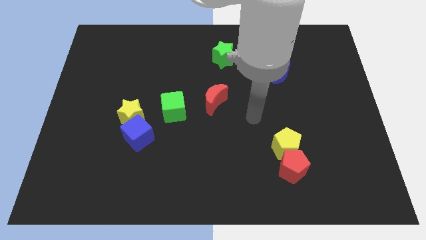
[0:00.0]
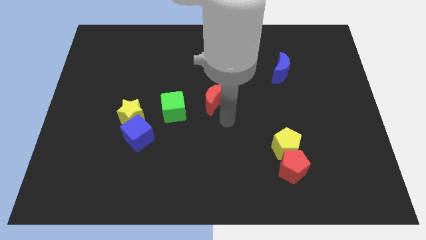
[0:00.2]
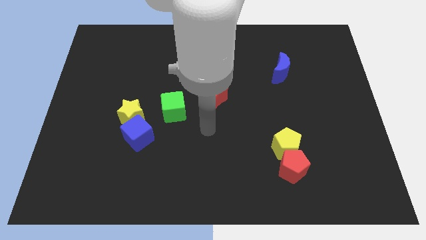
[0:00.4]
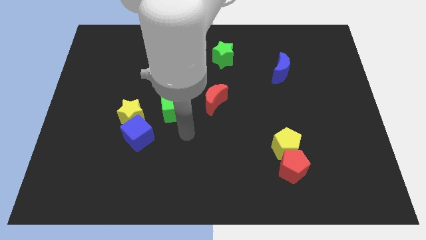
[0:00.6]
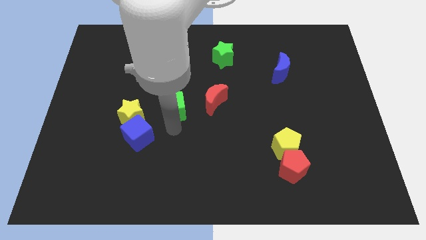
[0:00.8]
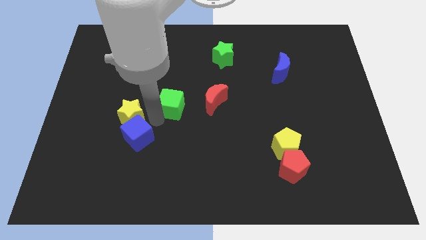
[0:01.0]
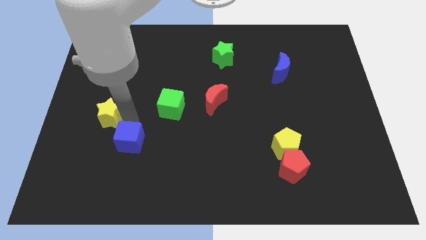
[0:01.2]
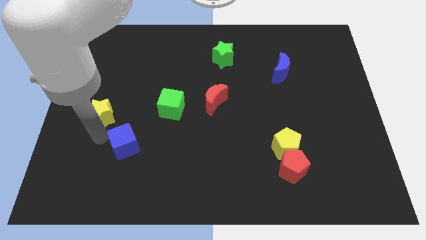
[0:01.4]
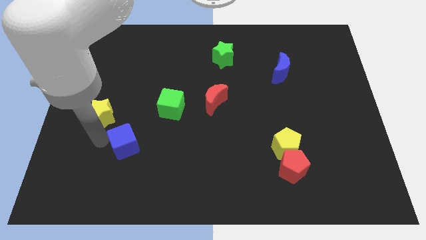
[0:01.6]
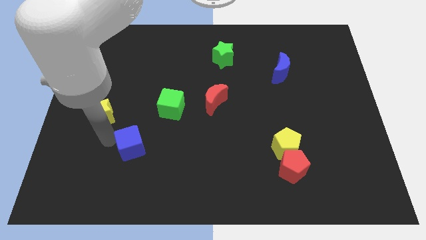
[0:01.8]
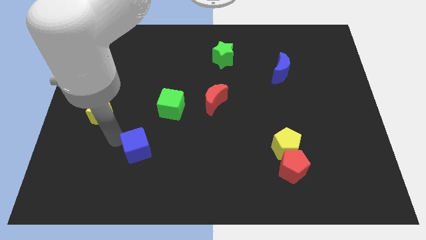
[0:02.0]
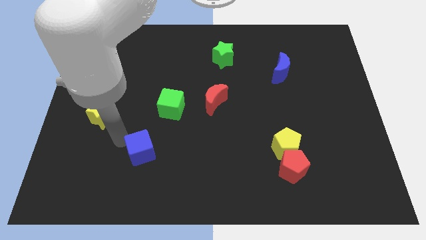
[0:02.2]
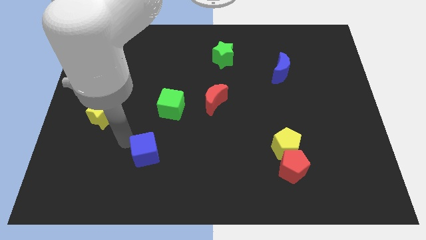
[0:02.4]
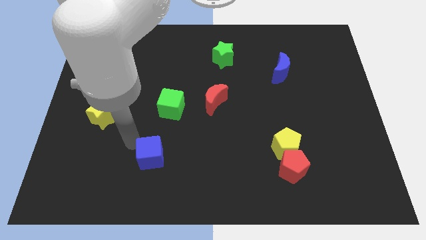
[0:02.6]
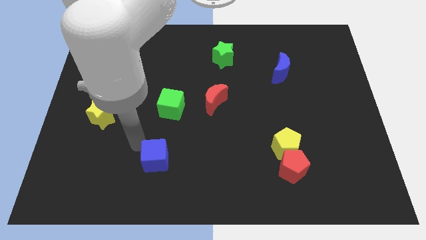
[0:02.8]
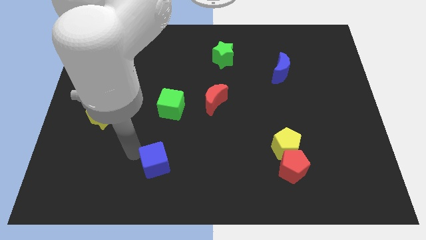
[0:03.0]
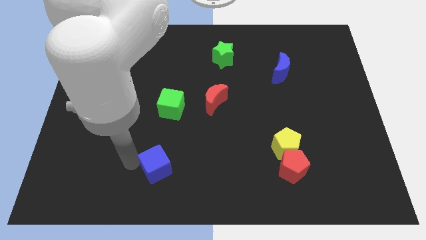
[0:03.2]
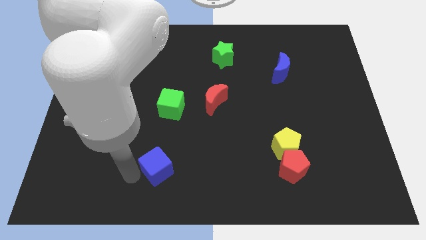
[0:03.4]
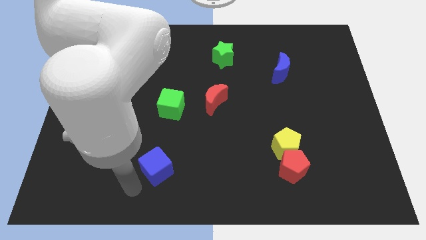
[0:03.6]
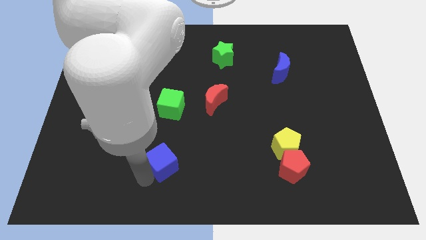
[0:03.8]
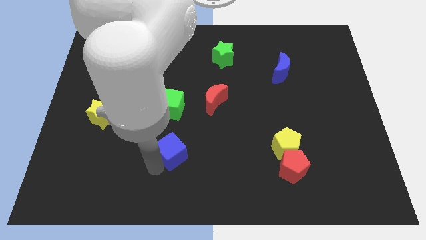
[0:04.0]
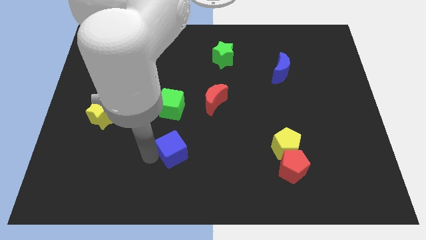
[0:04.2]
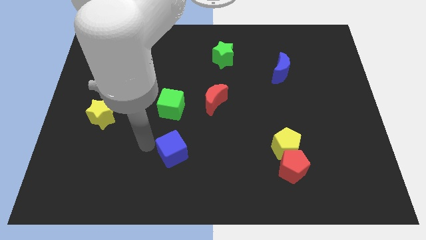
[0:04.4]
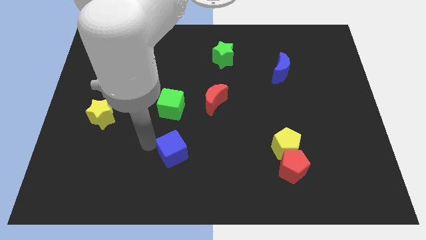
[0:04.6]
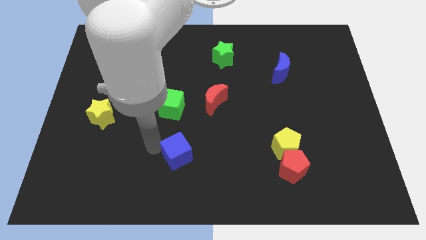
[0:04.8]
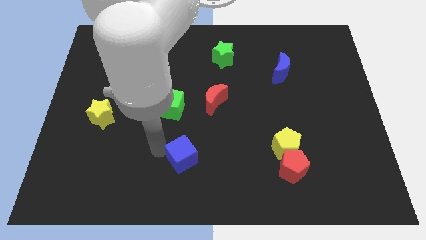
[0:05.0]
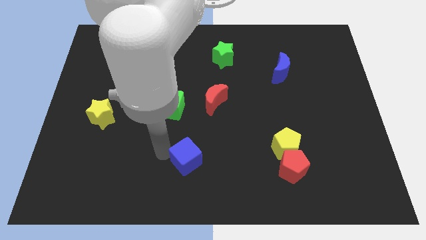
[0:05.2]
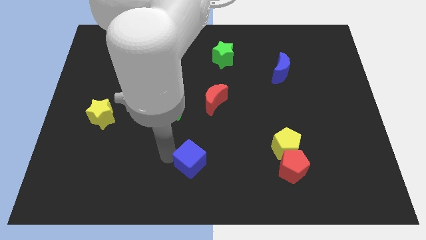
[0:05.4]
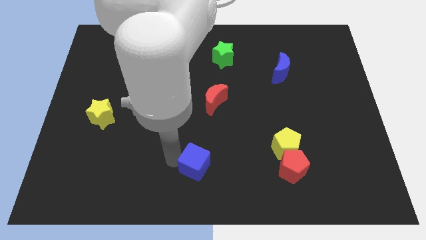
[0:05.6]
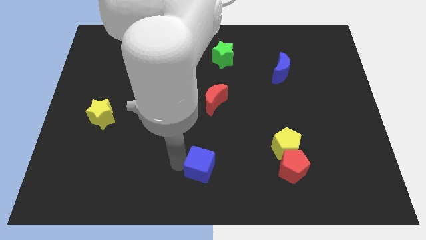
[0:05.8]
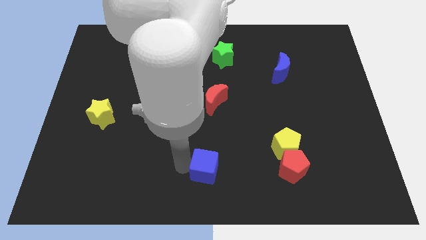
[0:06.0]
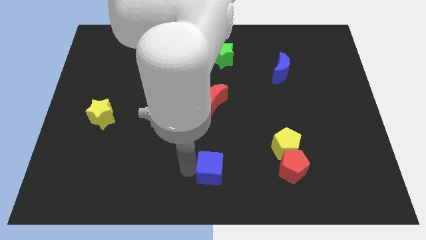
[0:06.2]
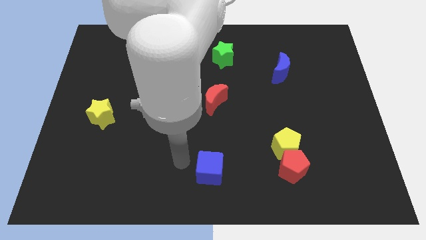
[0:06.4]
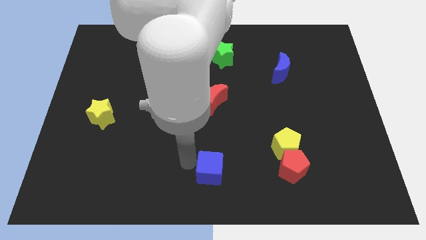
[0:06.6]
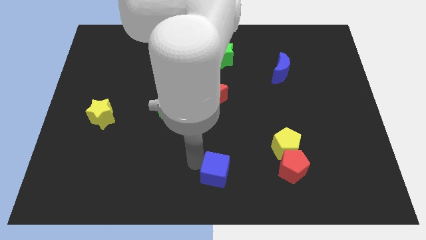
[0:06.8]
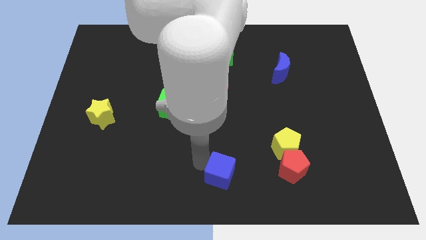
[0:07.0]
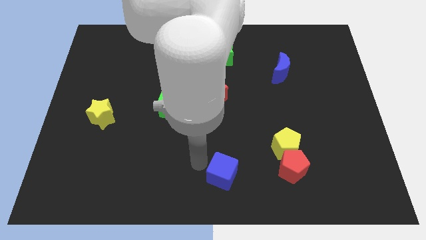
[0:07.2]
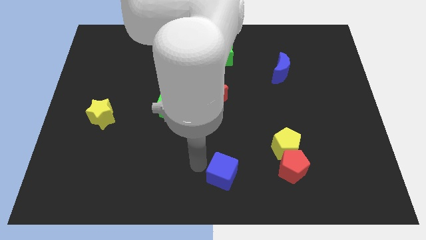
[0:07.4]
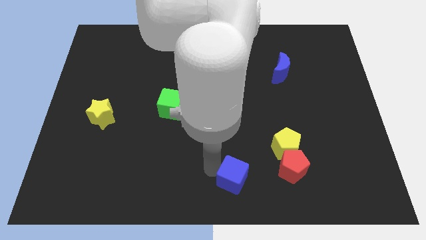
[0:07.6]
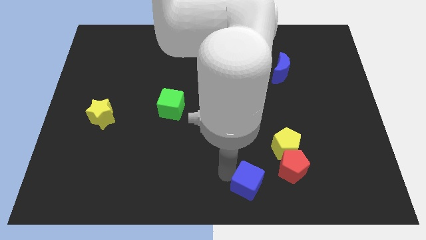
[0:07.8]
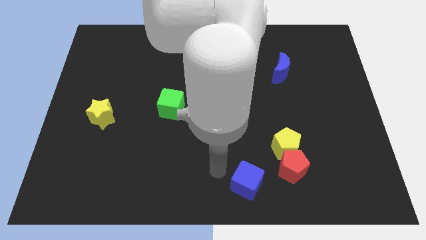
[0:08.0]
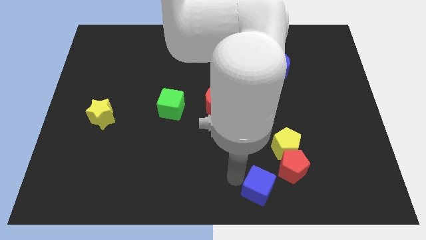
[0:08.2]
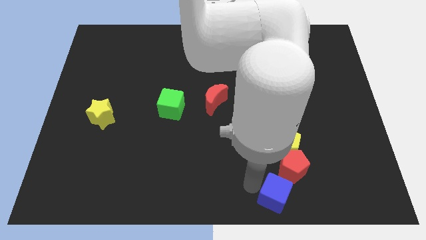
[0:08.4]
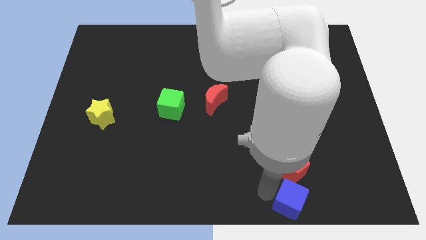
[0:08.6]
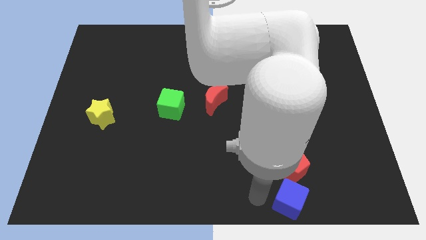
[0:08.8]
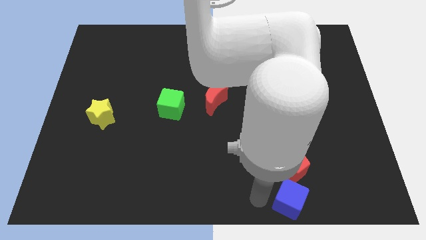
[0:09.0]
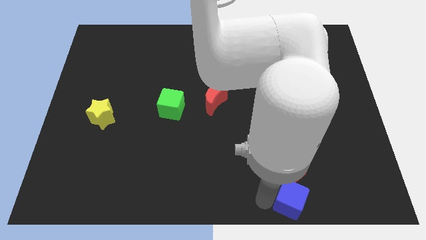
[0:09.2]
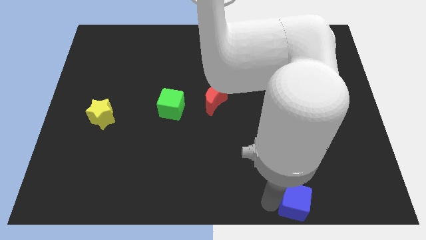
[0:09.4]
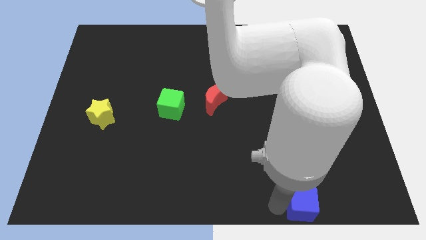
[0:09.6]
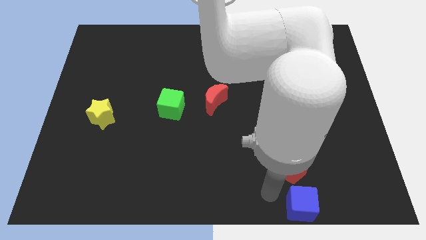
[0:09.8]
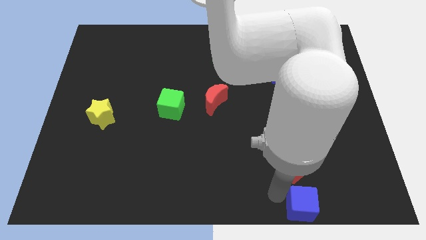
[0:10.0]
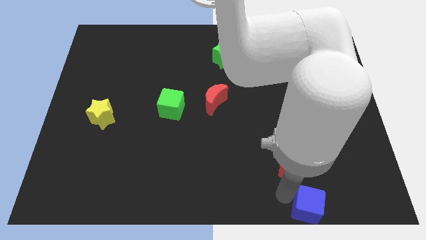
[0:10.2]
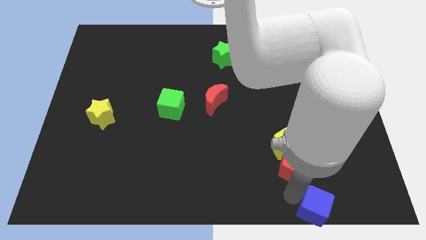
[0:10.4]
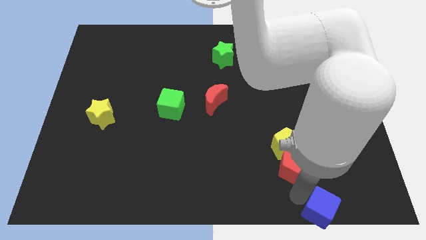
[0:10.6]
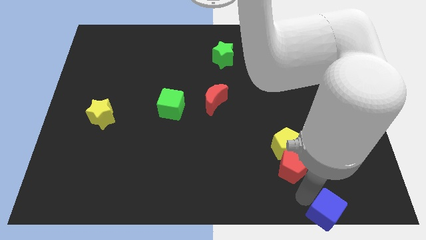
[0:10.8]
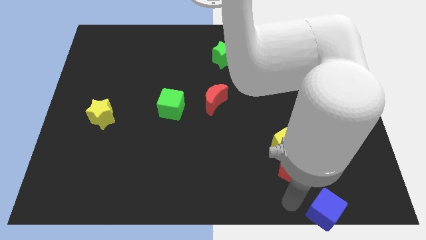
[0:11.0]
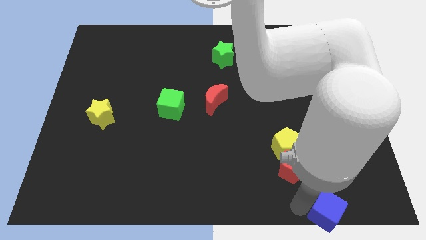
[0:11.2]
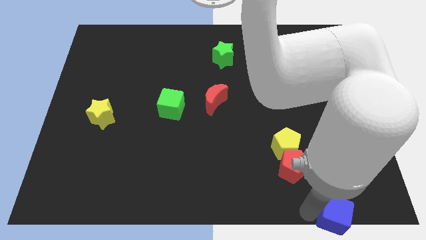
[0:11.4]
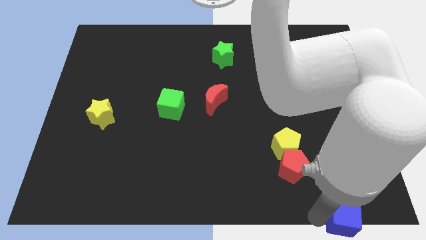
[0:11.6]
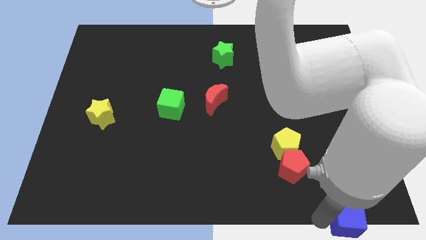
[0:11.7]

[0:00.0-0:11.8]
move the blue cube to the bottom right of the board

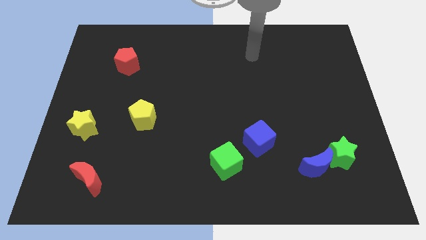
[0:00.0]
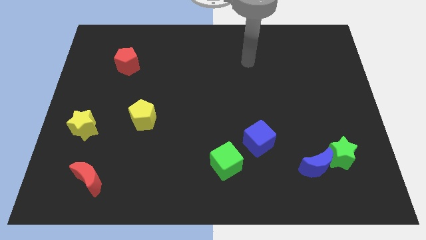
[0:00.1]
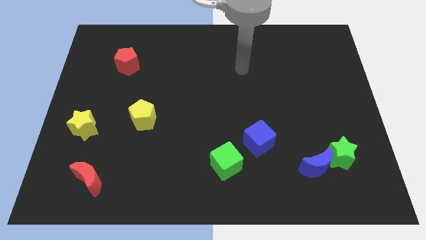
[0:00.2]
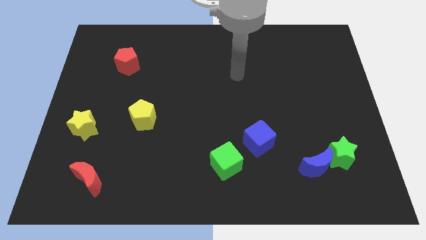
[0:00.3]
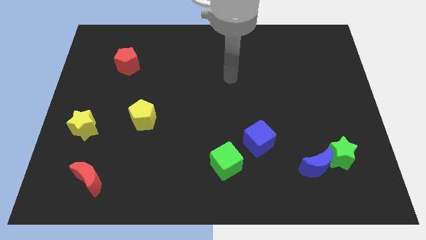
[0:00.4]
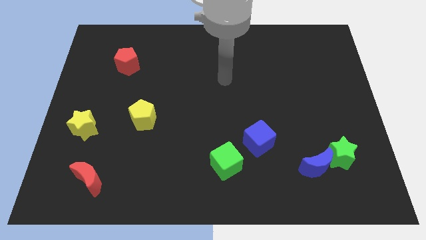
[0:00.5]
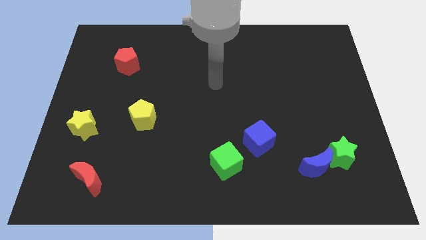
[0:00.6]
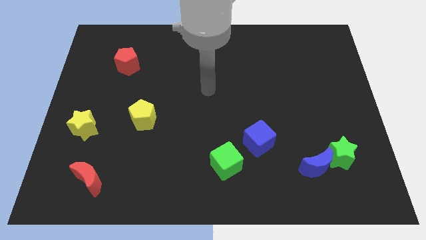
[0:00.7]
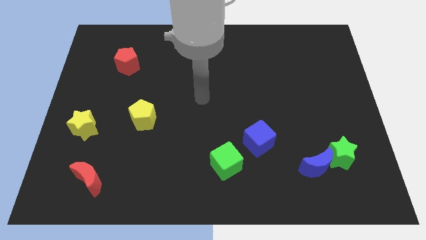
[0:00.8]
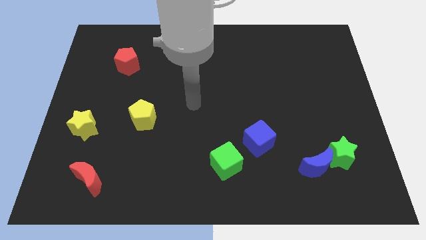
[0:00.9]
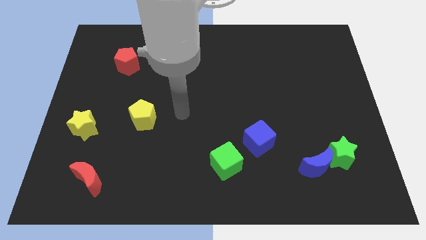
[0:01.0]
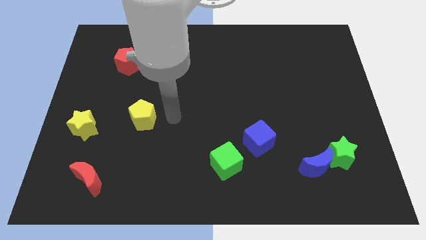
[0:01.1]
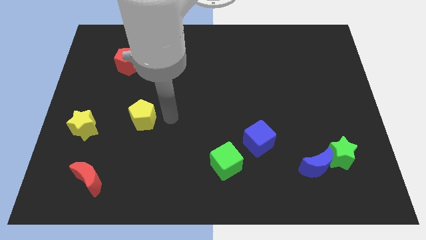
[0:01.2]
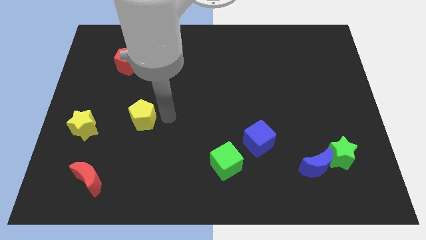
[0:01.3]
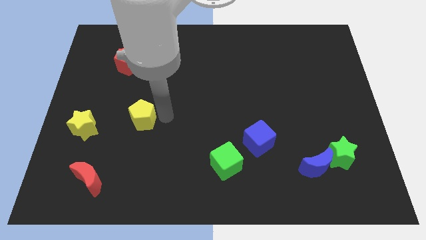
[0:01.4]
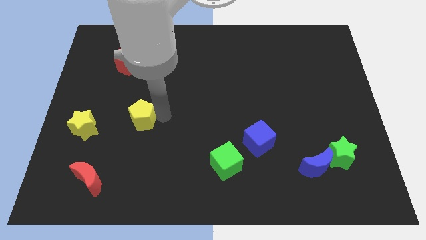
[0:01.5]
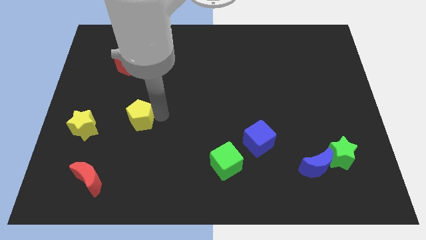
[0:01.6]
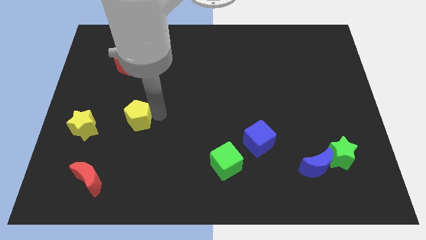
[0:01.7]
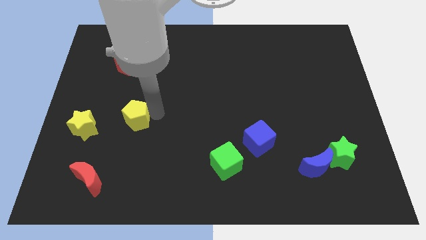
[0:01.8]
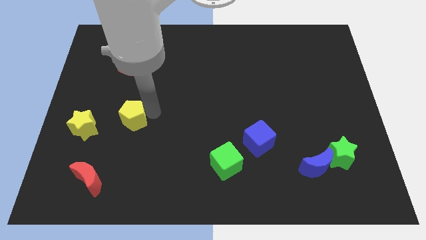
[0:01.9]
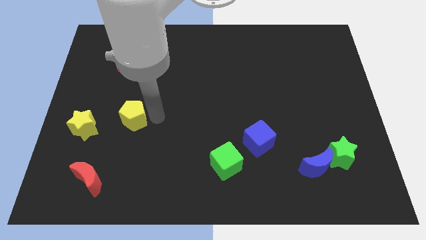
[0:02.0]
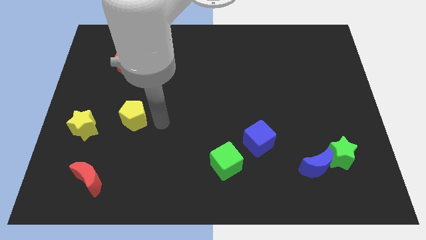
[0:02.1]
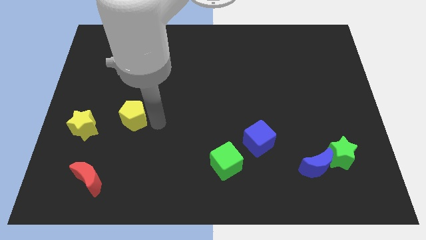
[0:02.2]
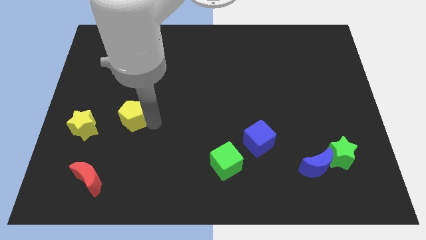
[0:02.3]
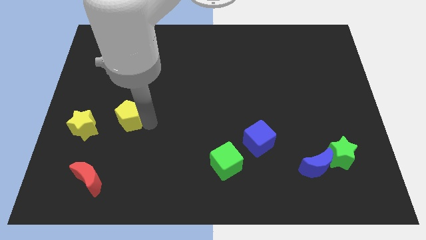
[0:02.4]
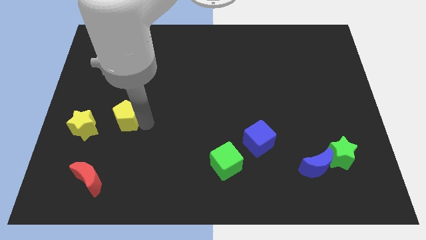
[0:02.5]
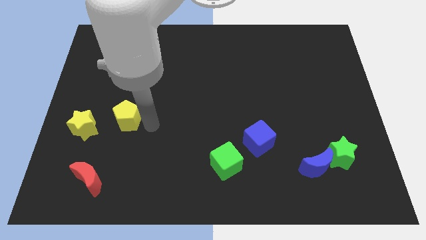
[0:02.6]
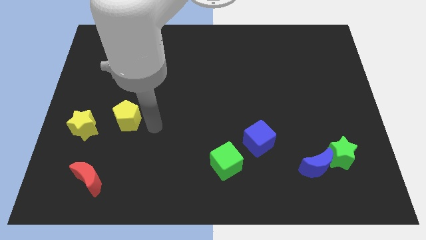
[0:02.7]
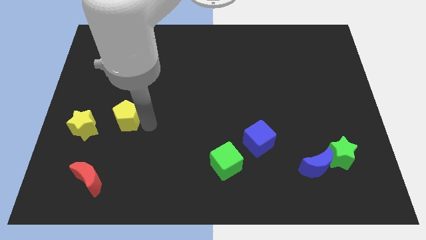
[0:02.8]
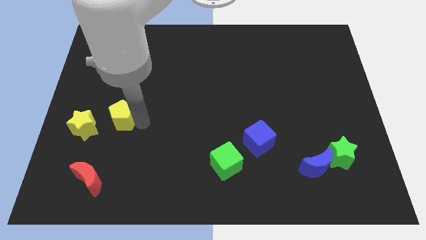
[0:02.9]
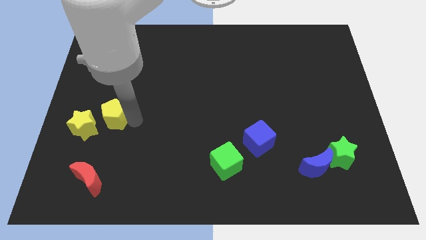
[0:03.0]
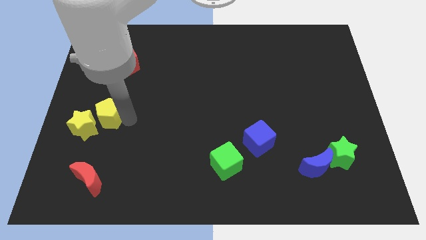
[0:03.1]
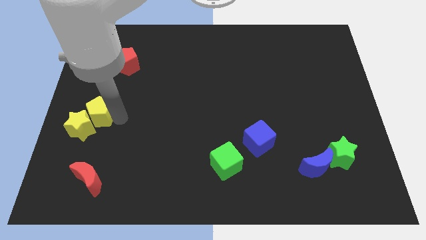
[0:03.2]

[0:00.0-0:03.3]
put the yellow pentagon to the left side
